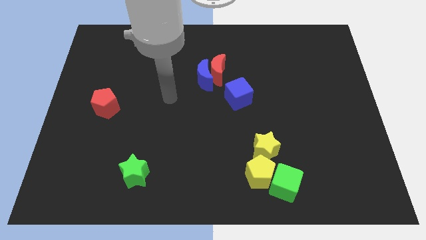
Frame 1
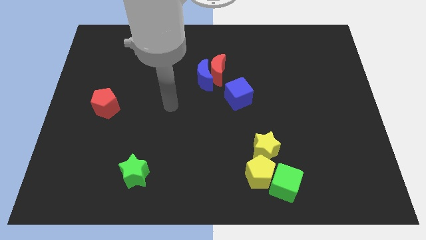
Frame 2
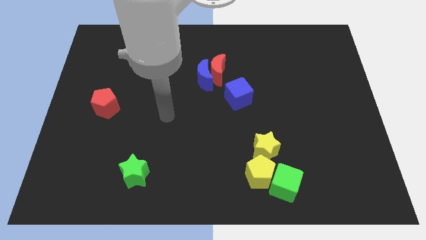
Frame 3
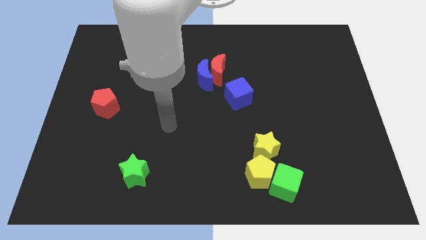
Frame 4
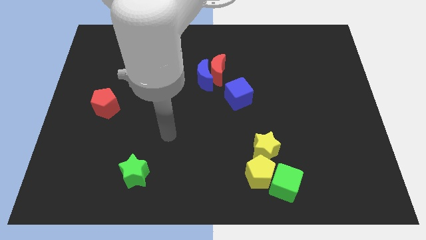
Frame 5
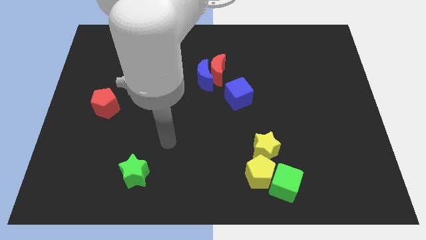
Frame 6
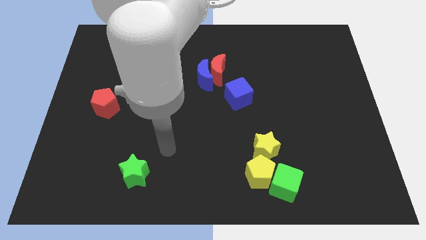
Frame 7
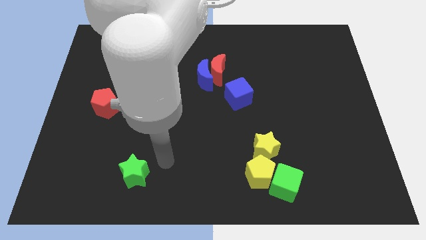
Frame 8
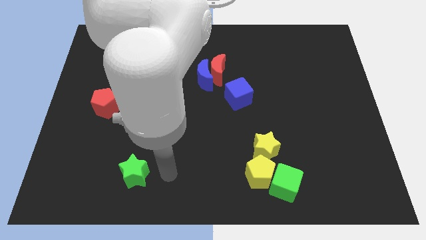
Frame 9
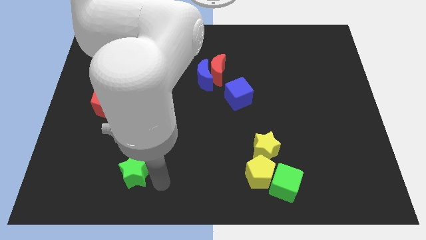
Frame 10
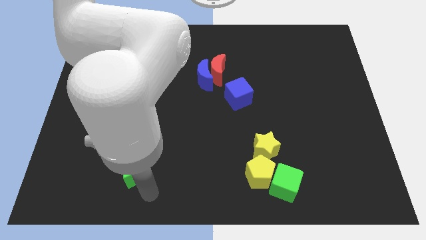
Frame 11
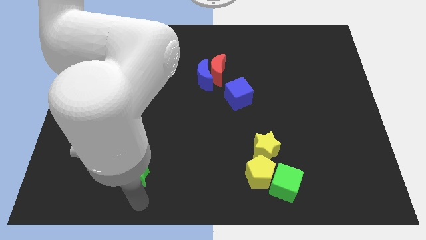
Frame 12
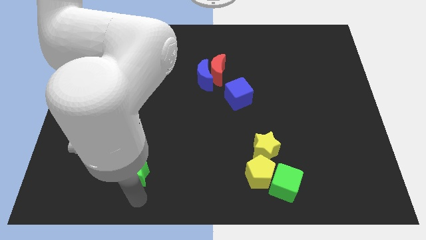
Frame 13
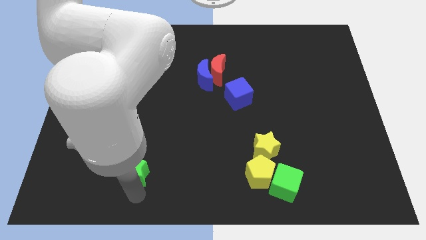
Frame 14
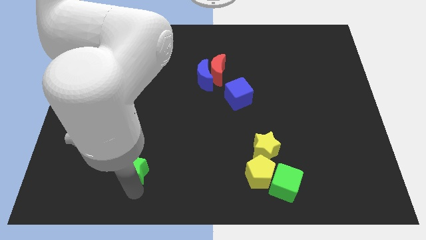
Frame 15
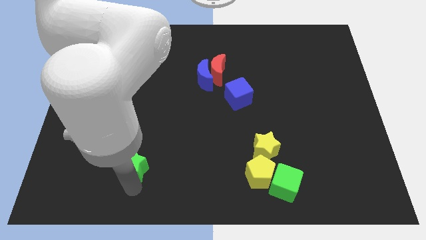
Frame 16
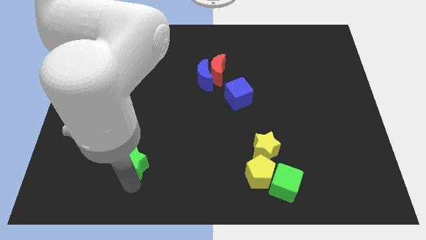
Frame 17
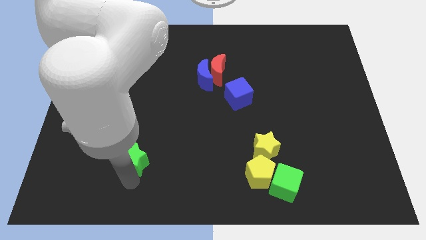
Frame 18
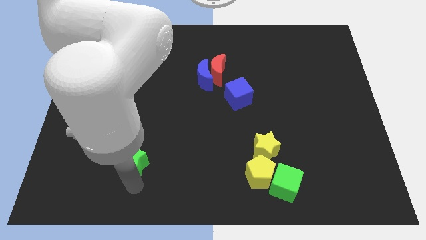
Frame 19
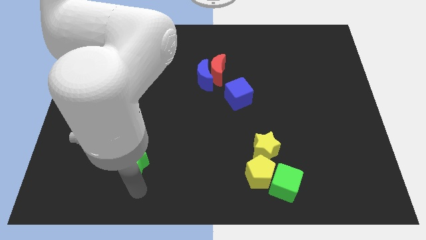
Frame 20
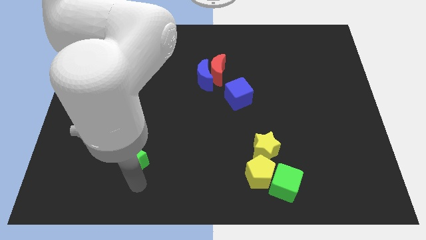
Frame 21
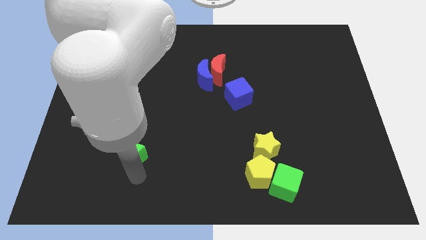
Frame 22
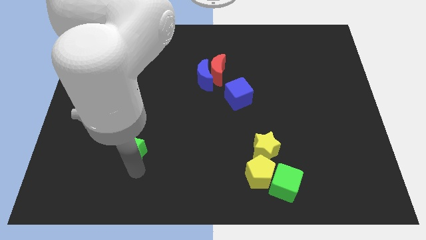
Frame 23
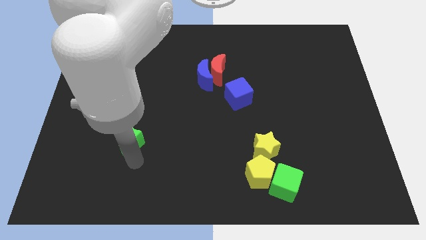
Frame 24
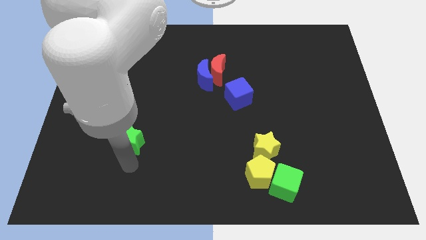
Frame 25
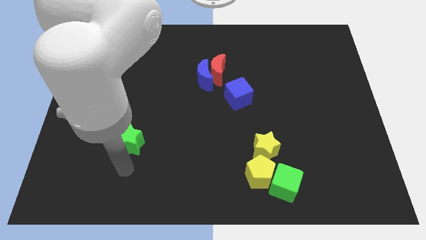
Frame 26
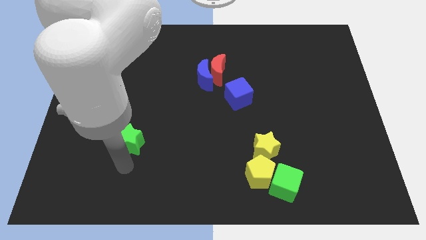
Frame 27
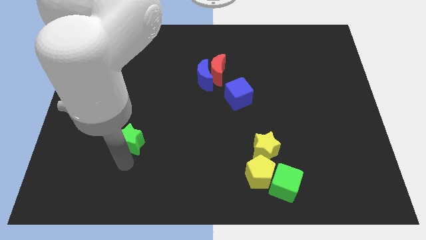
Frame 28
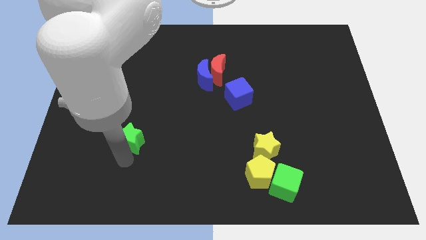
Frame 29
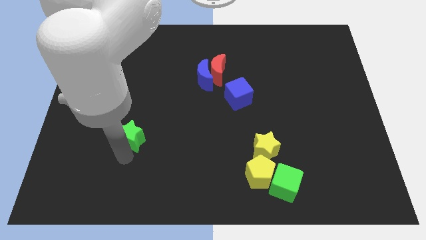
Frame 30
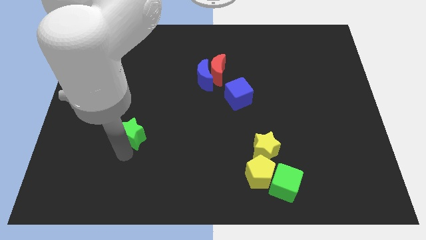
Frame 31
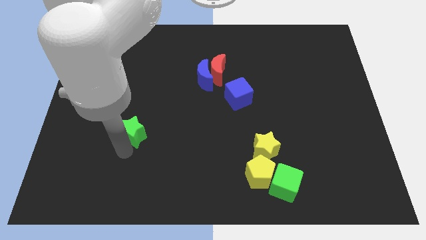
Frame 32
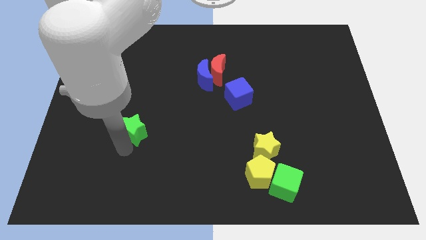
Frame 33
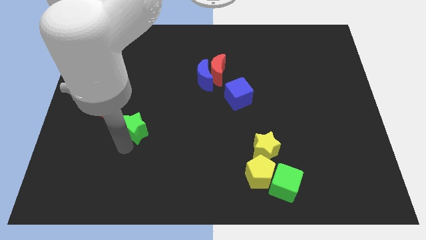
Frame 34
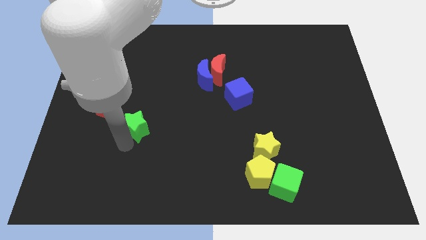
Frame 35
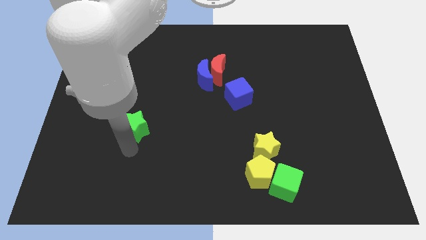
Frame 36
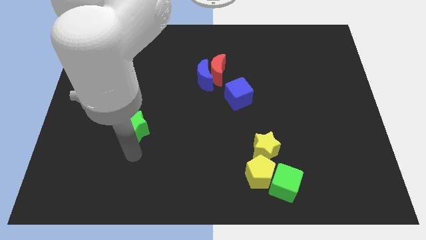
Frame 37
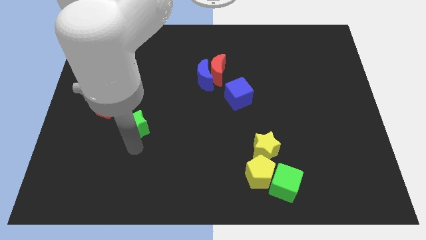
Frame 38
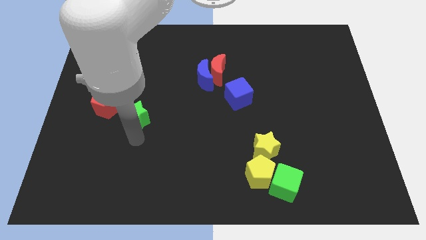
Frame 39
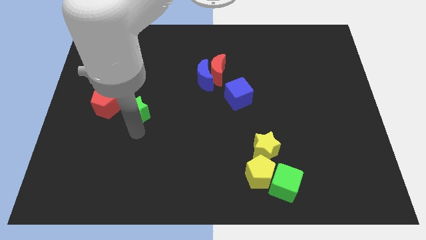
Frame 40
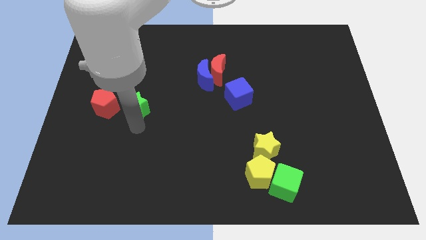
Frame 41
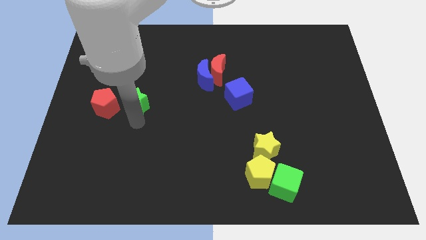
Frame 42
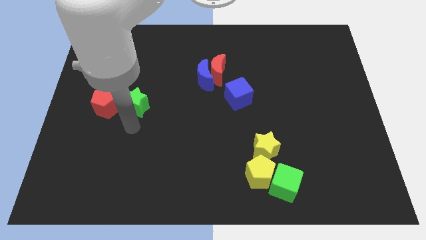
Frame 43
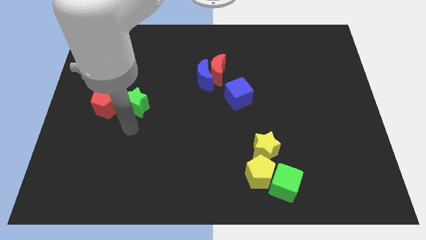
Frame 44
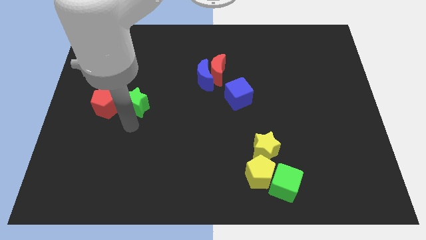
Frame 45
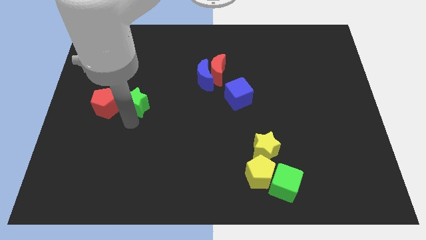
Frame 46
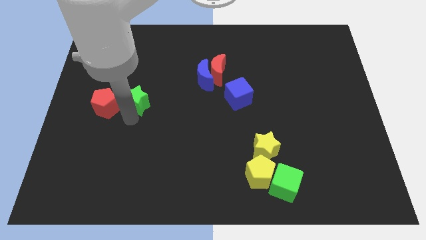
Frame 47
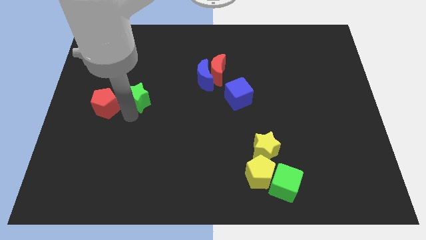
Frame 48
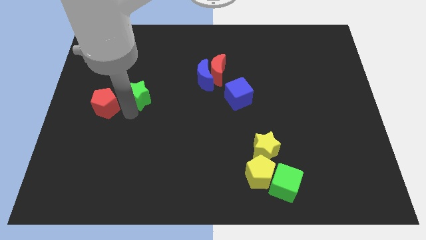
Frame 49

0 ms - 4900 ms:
slide the green star up

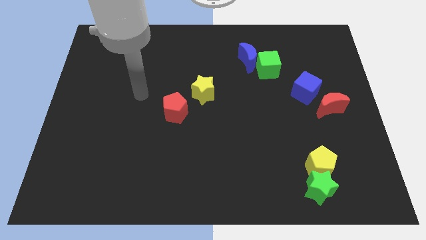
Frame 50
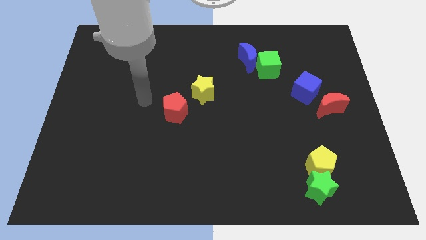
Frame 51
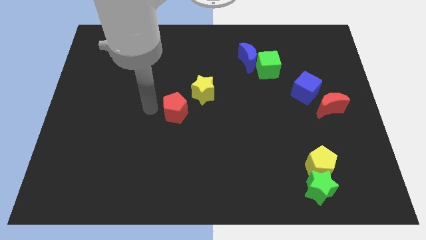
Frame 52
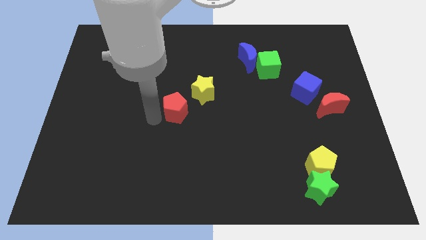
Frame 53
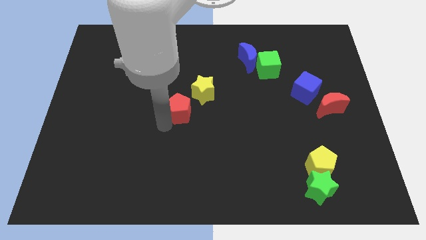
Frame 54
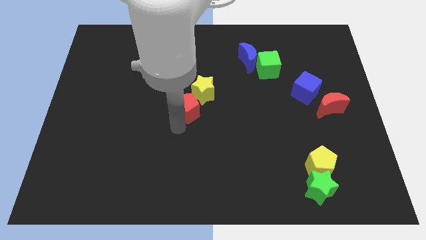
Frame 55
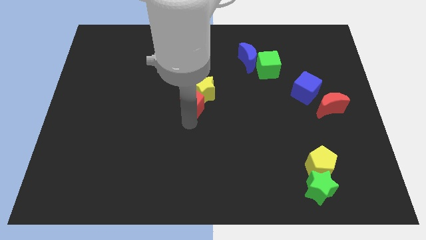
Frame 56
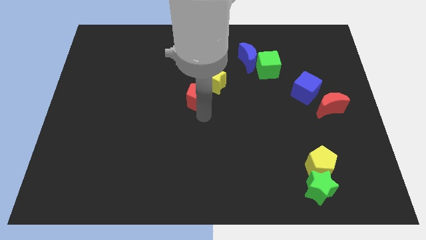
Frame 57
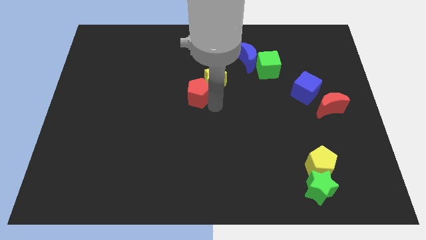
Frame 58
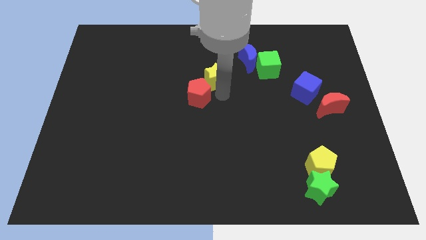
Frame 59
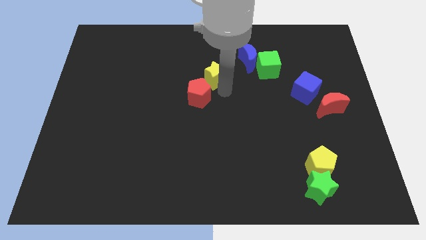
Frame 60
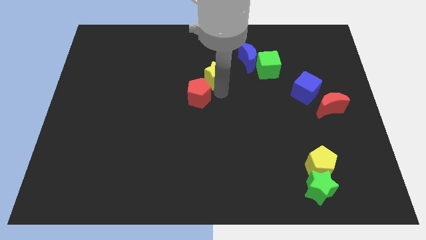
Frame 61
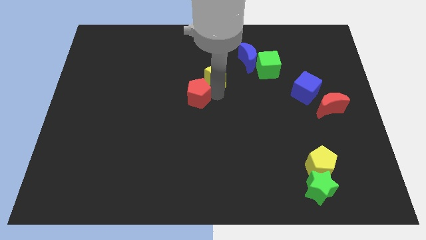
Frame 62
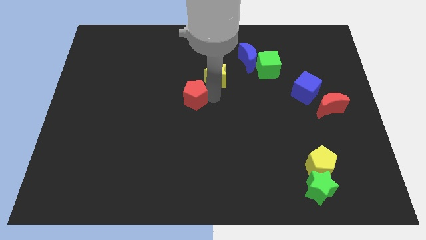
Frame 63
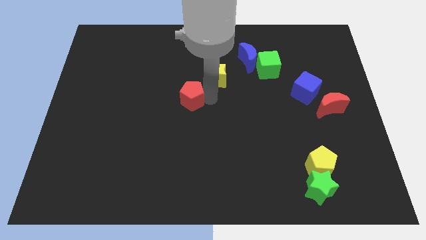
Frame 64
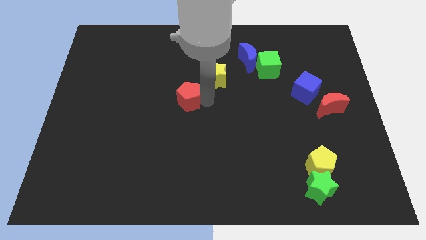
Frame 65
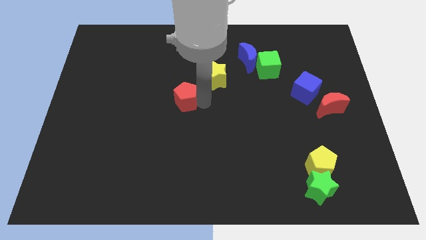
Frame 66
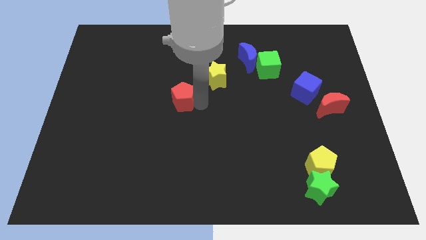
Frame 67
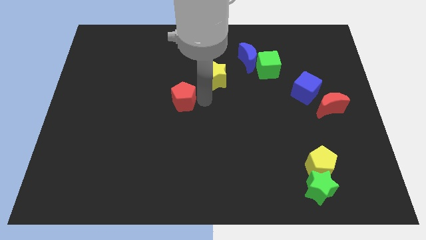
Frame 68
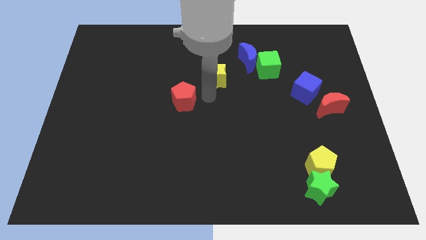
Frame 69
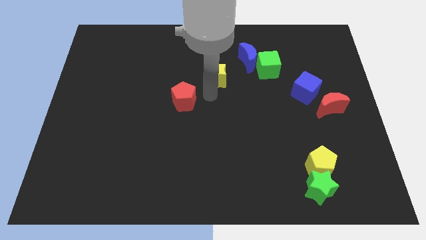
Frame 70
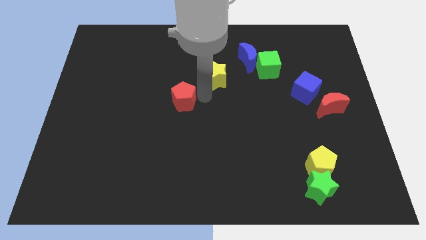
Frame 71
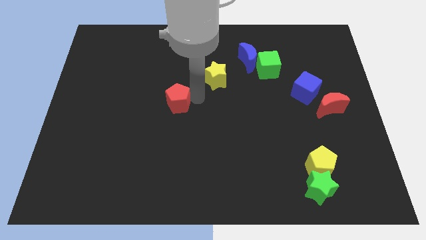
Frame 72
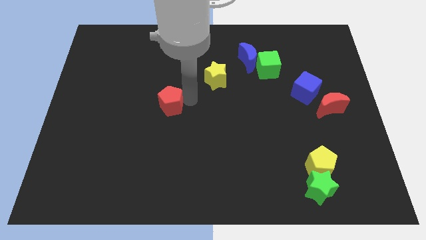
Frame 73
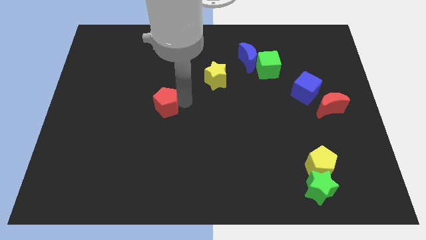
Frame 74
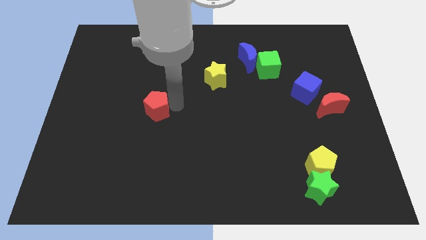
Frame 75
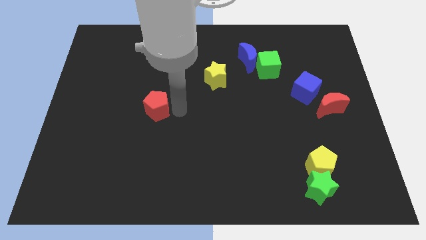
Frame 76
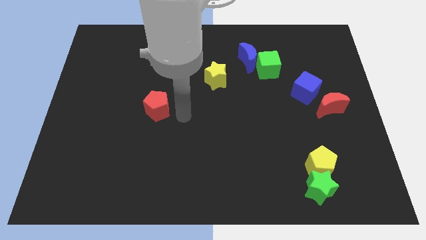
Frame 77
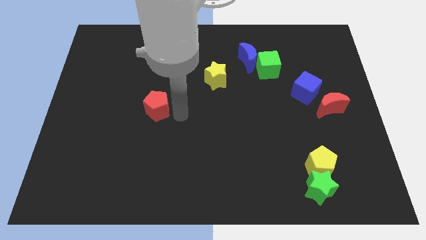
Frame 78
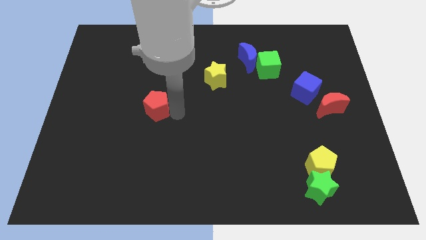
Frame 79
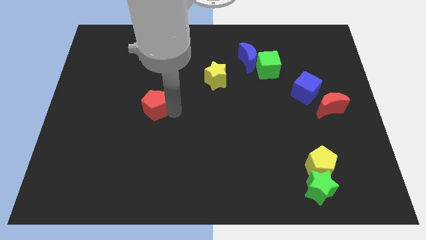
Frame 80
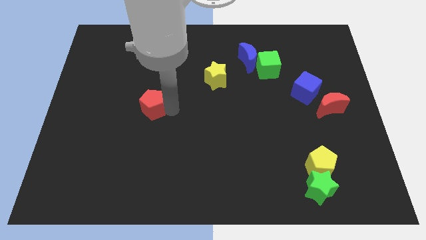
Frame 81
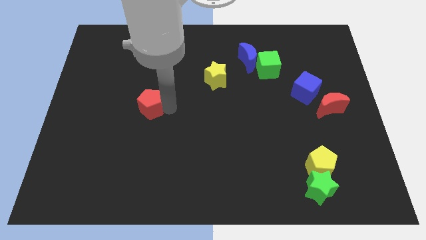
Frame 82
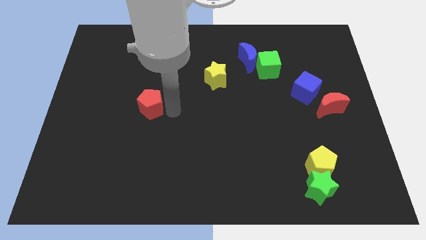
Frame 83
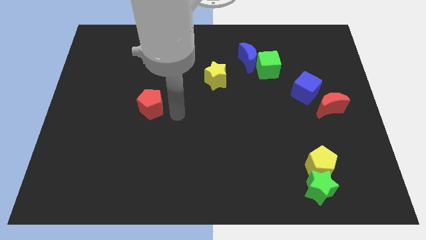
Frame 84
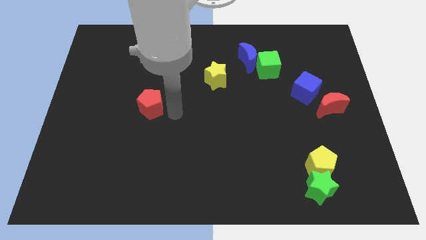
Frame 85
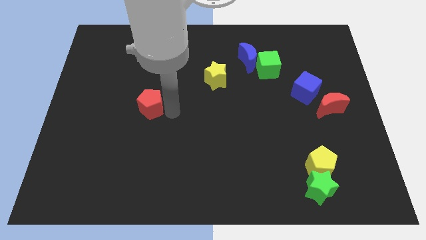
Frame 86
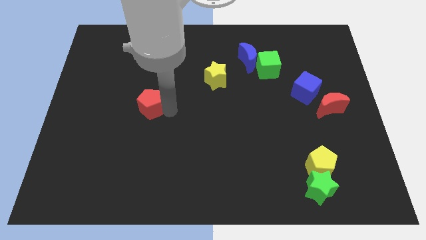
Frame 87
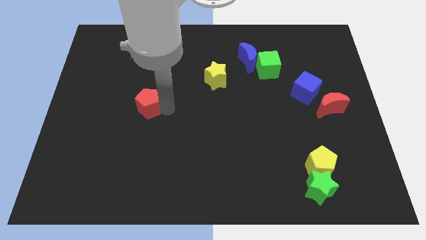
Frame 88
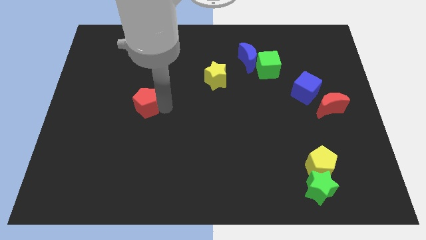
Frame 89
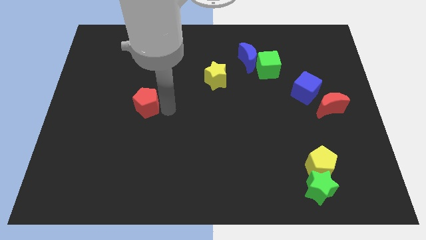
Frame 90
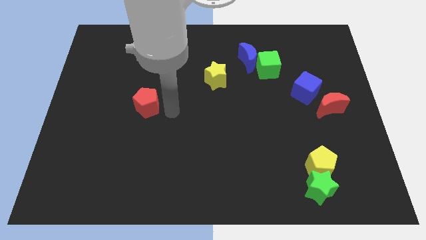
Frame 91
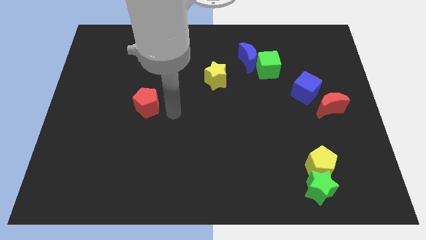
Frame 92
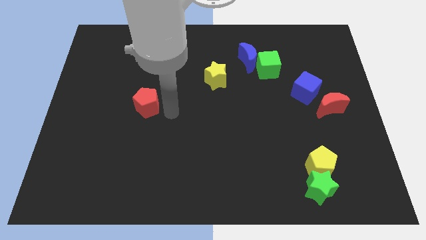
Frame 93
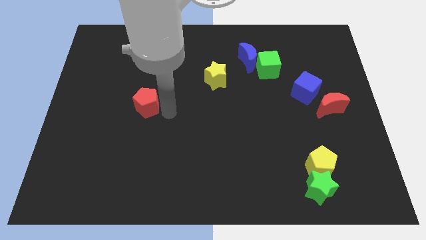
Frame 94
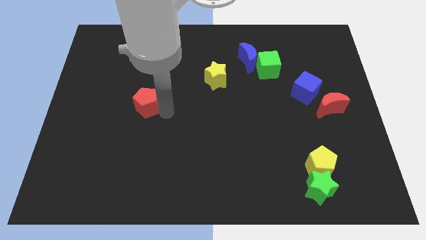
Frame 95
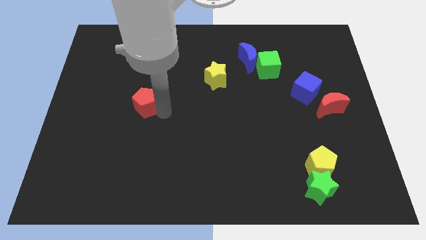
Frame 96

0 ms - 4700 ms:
push the red pentagon a little bit left
